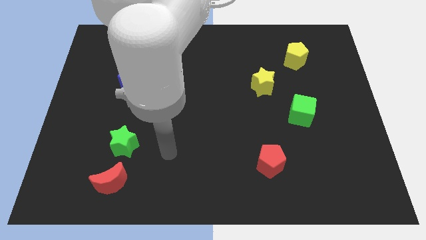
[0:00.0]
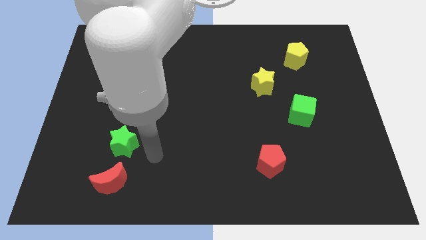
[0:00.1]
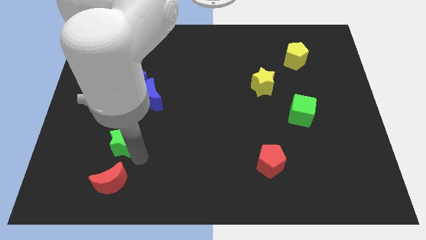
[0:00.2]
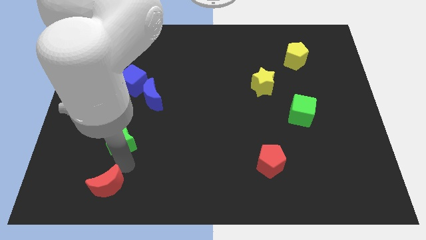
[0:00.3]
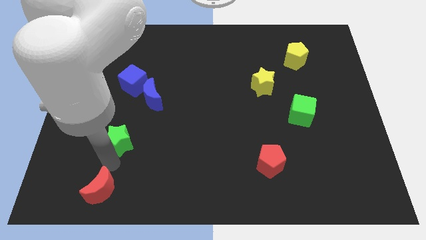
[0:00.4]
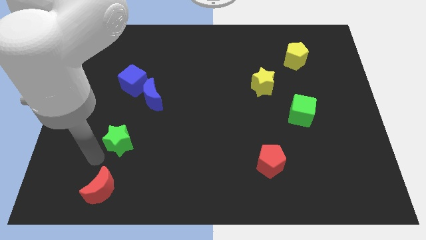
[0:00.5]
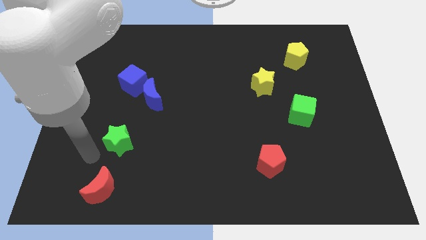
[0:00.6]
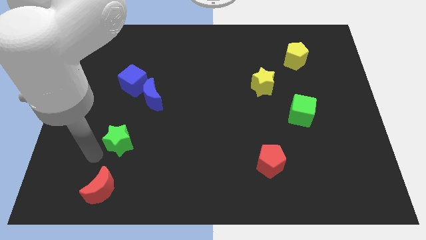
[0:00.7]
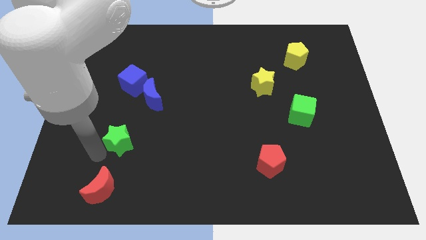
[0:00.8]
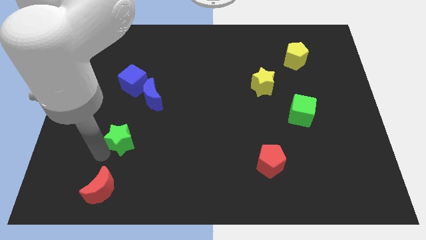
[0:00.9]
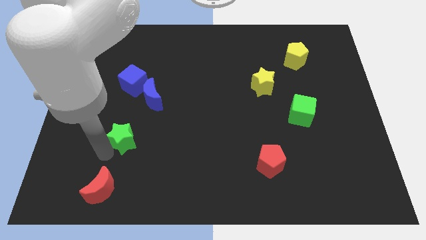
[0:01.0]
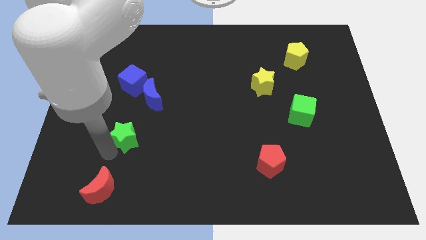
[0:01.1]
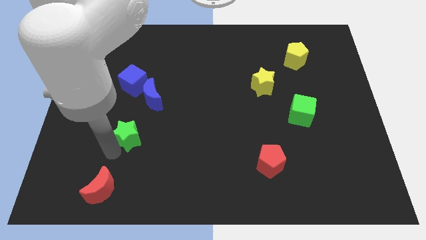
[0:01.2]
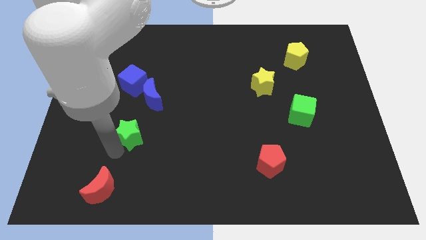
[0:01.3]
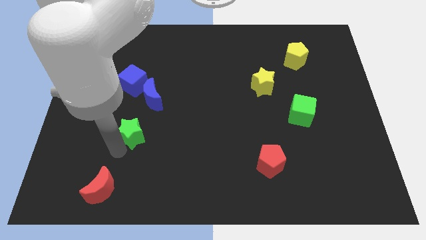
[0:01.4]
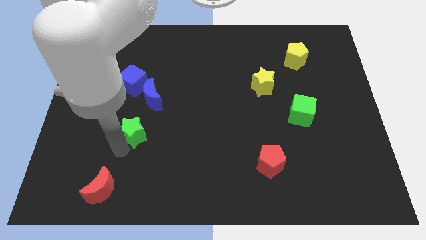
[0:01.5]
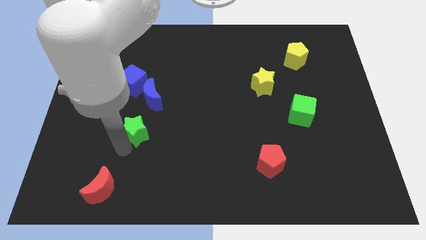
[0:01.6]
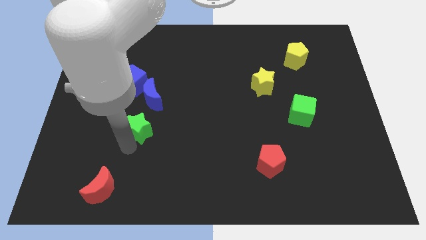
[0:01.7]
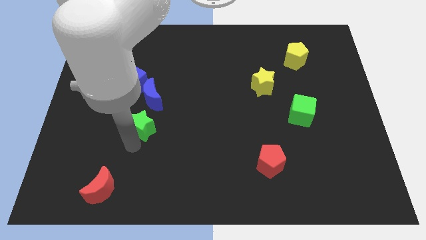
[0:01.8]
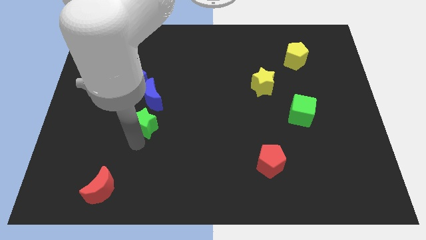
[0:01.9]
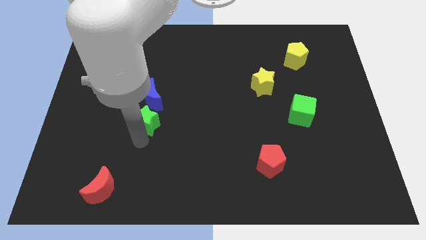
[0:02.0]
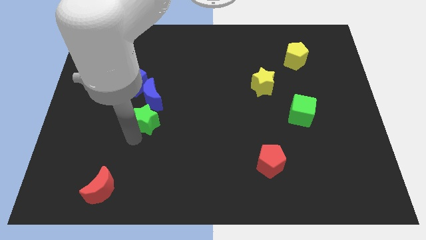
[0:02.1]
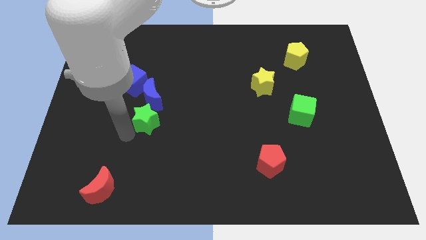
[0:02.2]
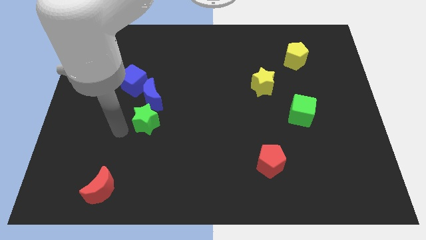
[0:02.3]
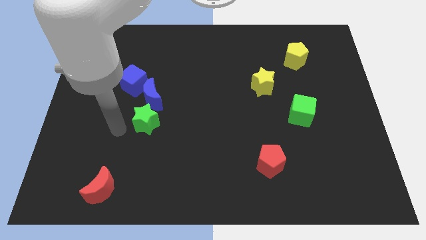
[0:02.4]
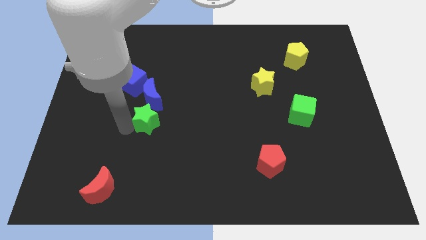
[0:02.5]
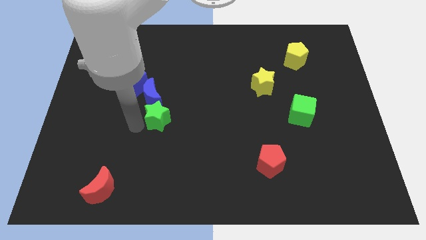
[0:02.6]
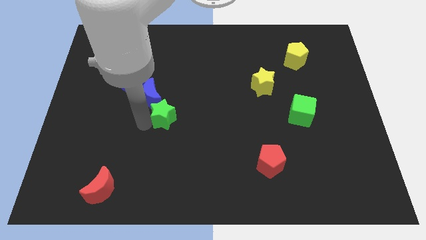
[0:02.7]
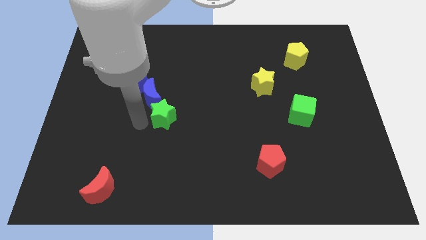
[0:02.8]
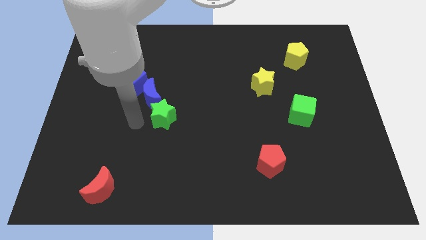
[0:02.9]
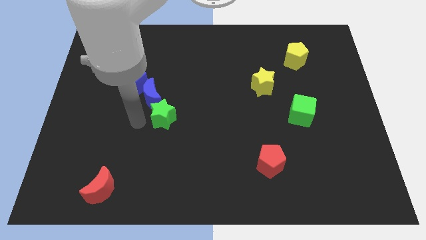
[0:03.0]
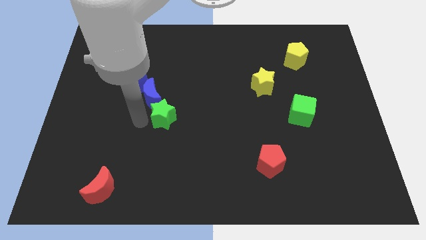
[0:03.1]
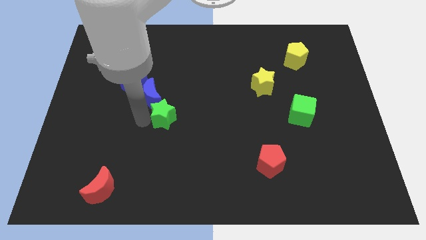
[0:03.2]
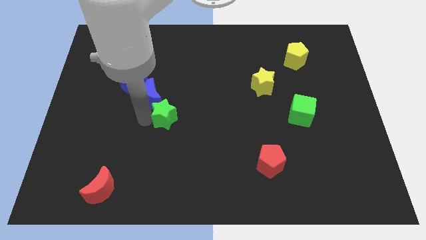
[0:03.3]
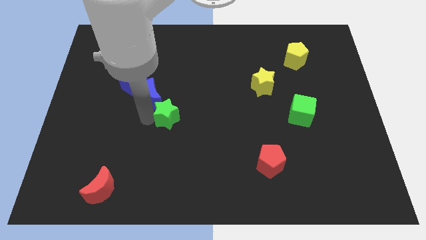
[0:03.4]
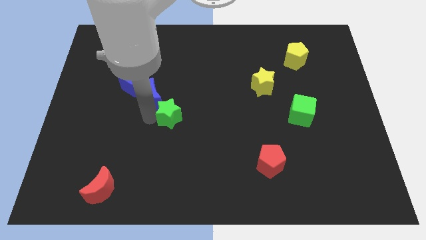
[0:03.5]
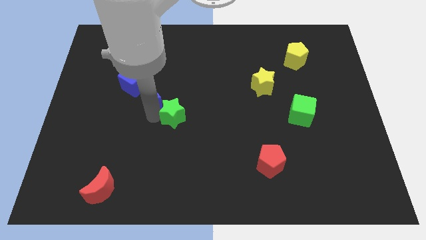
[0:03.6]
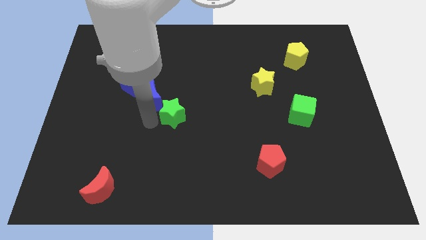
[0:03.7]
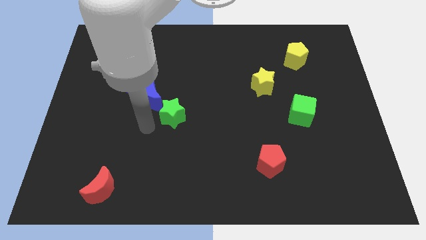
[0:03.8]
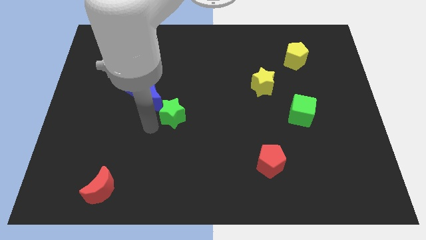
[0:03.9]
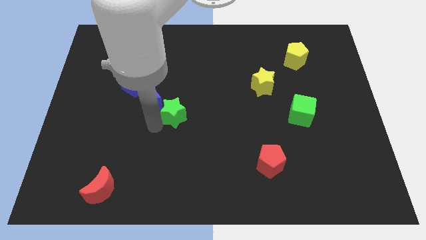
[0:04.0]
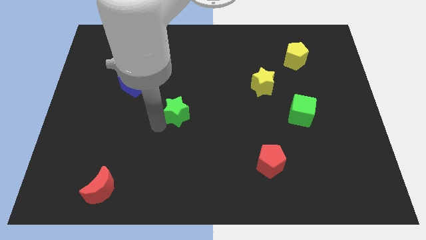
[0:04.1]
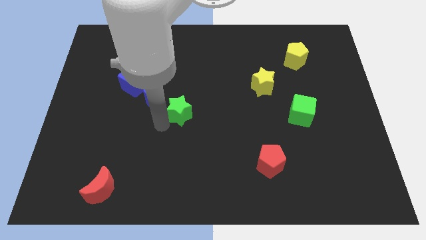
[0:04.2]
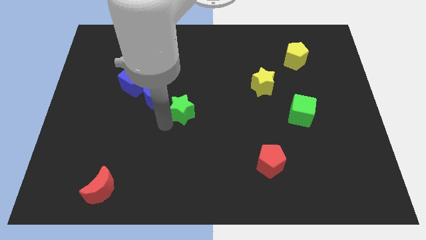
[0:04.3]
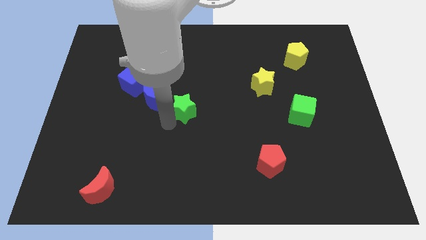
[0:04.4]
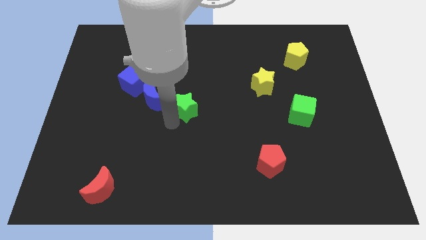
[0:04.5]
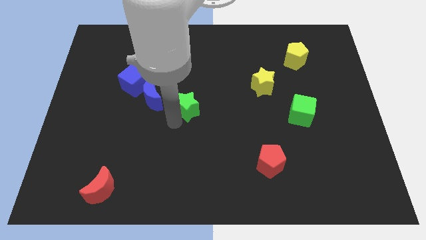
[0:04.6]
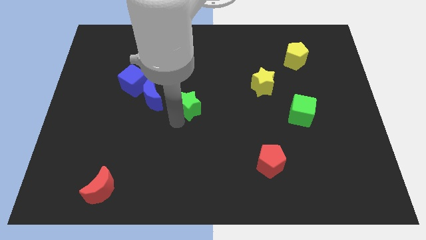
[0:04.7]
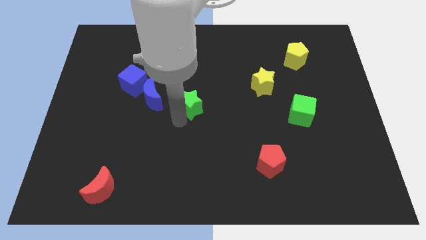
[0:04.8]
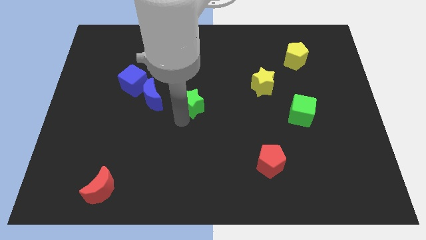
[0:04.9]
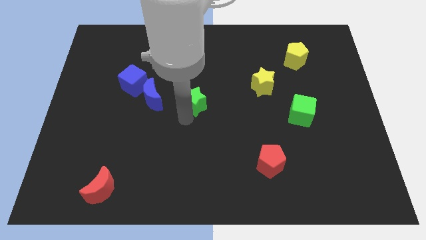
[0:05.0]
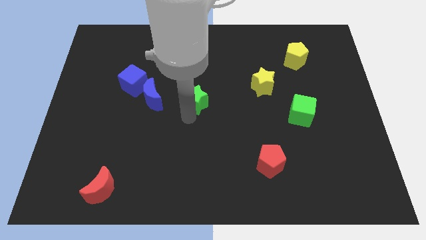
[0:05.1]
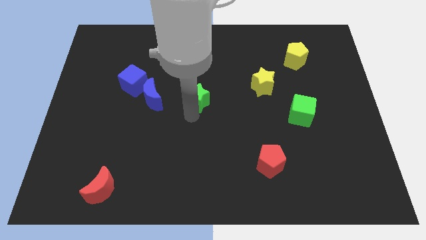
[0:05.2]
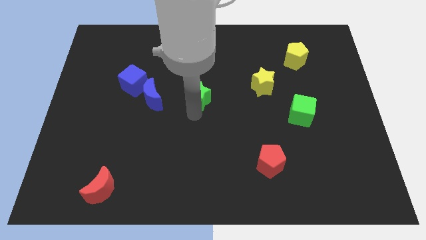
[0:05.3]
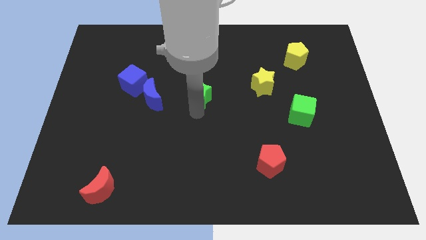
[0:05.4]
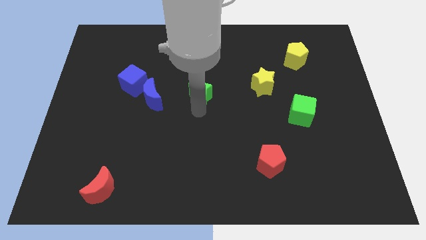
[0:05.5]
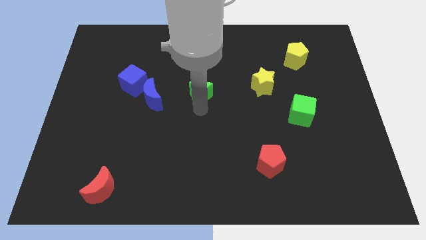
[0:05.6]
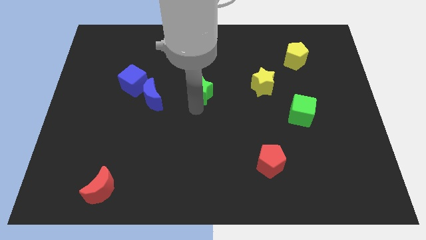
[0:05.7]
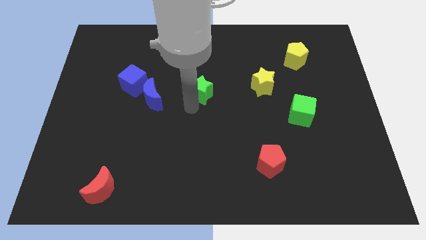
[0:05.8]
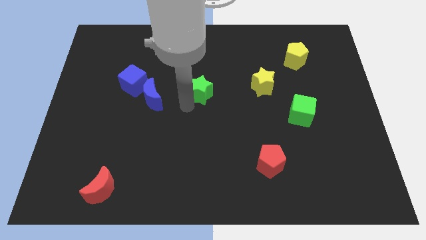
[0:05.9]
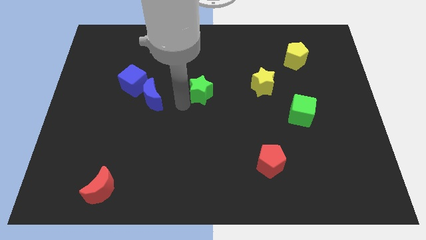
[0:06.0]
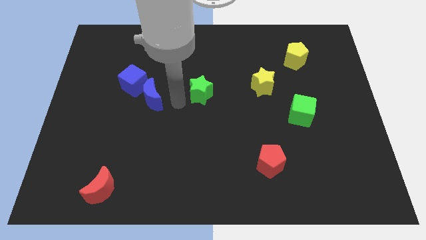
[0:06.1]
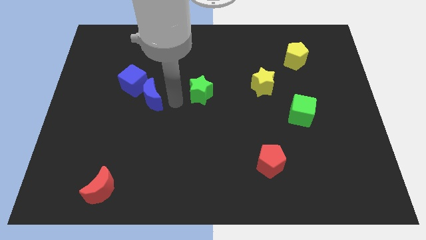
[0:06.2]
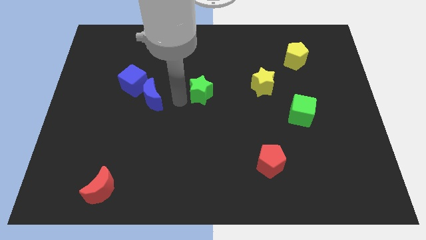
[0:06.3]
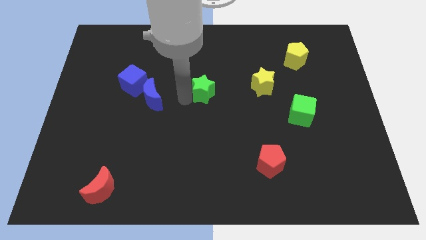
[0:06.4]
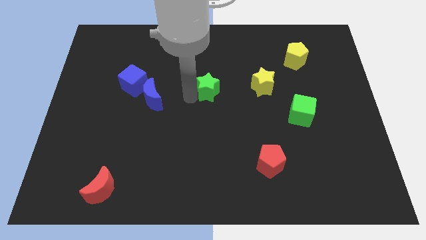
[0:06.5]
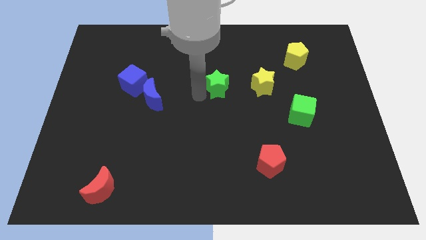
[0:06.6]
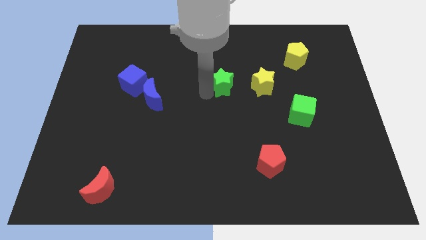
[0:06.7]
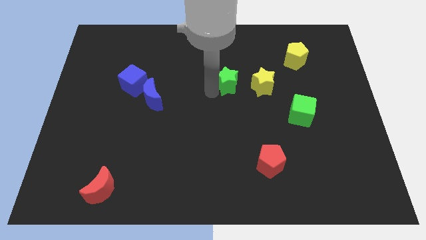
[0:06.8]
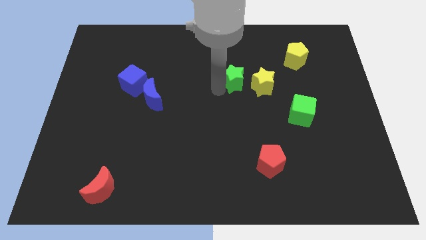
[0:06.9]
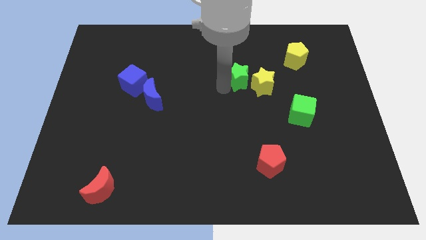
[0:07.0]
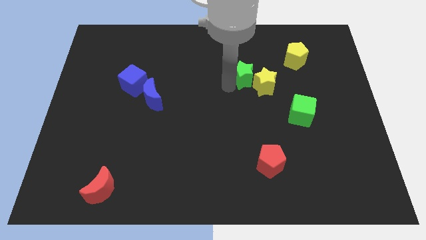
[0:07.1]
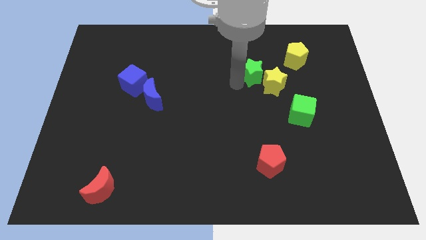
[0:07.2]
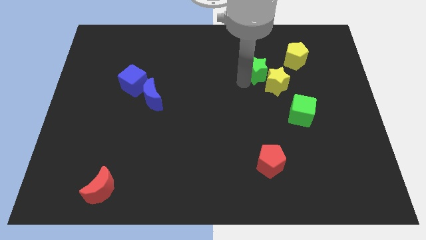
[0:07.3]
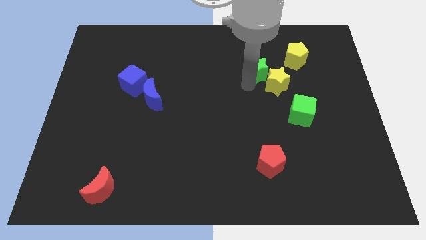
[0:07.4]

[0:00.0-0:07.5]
move the green star to the left of the yellow pentagon

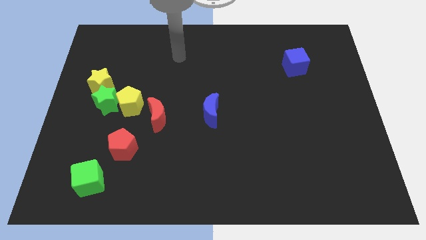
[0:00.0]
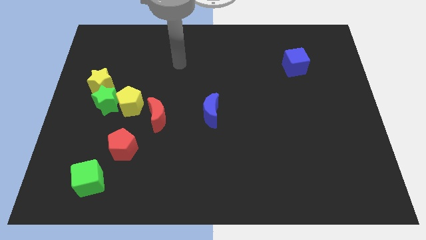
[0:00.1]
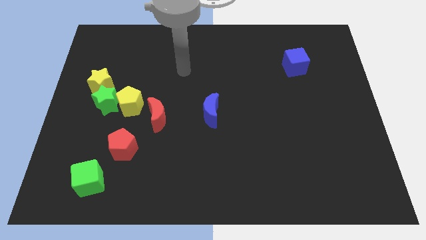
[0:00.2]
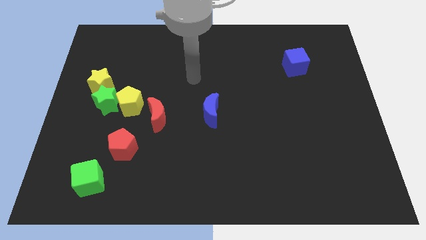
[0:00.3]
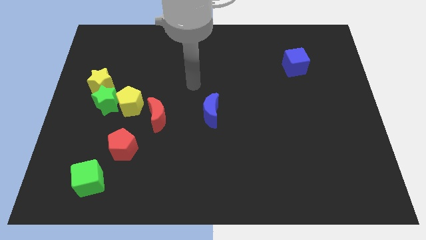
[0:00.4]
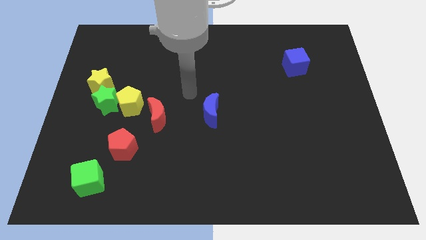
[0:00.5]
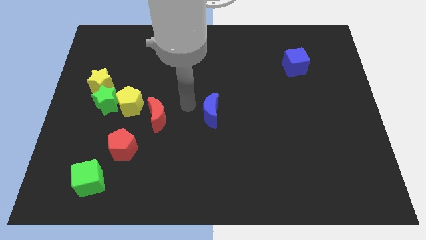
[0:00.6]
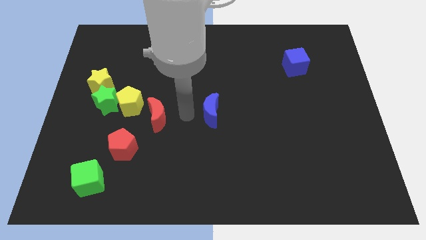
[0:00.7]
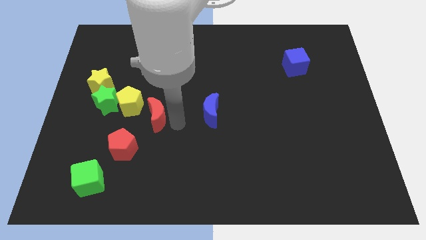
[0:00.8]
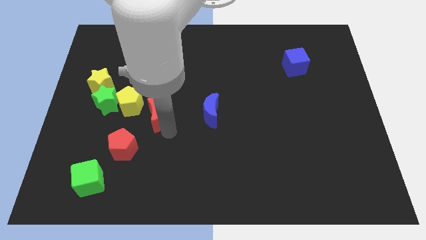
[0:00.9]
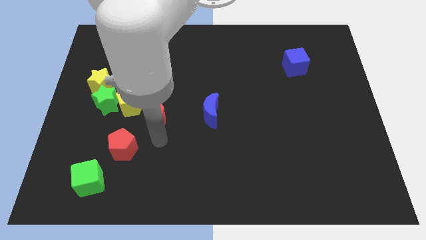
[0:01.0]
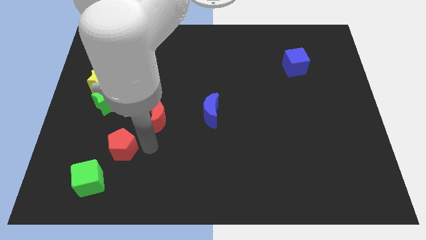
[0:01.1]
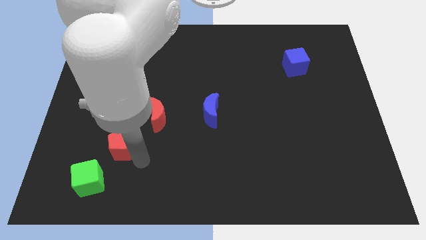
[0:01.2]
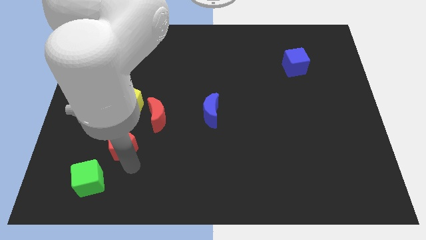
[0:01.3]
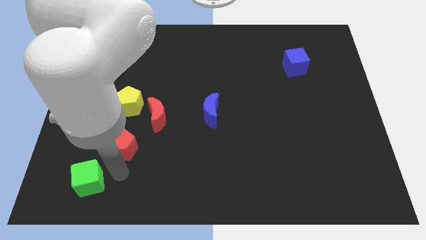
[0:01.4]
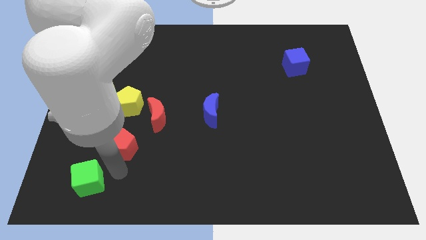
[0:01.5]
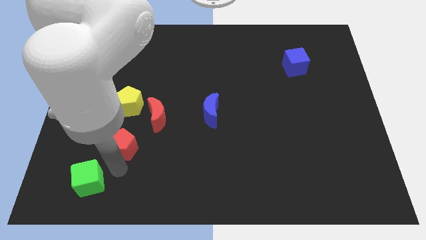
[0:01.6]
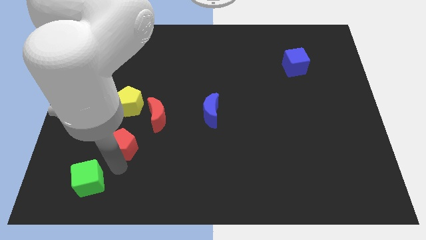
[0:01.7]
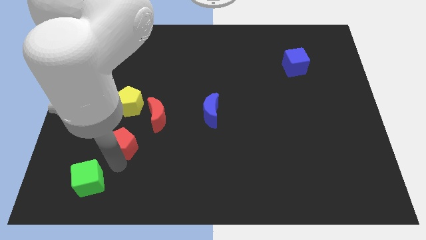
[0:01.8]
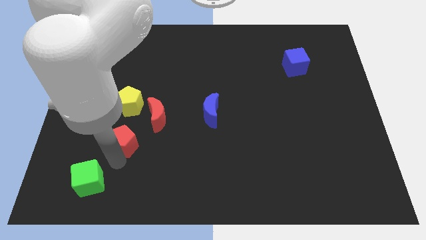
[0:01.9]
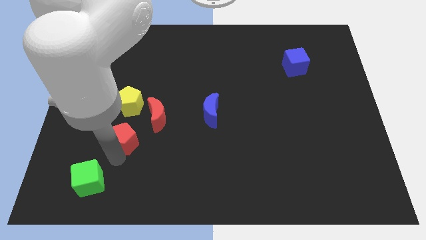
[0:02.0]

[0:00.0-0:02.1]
put the red pentagon to the bottom right side of the green star
